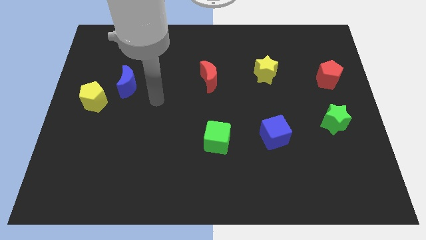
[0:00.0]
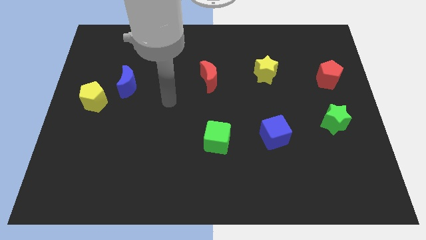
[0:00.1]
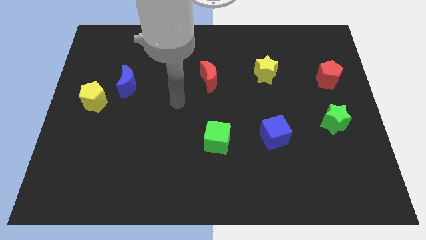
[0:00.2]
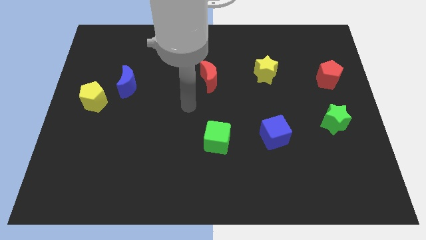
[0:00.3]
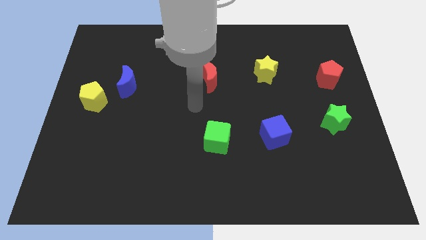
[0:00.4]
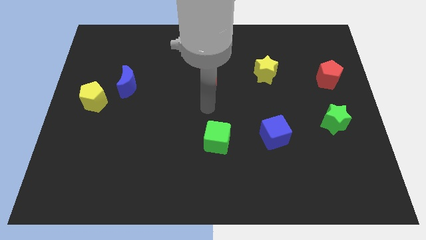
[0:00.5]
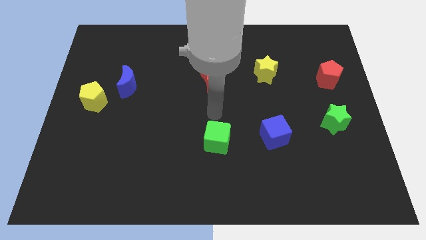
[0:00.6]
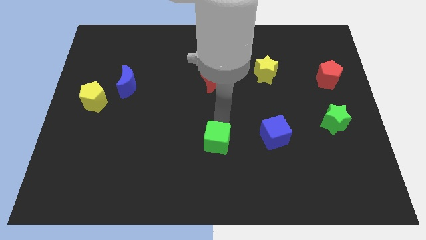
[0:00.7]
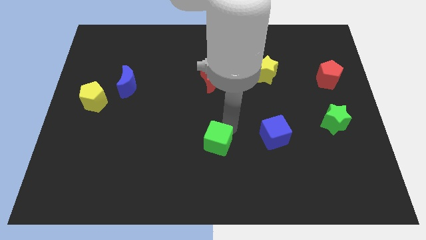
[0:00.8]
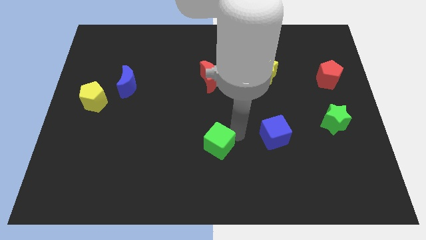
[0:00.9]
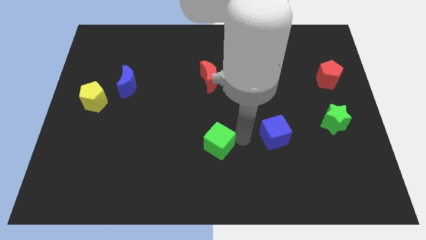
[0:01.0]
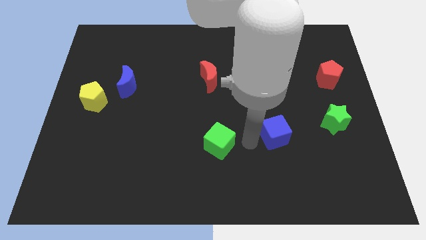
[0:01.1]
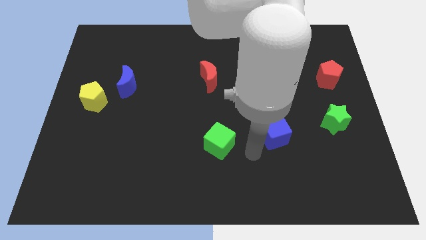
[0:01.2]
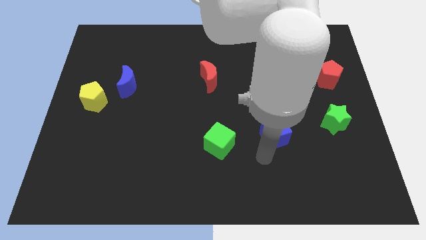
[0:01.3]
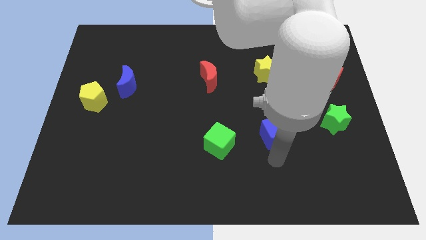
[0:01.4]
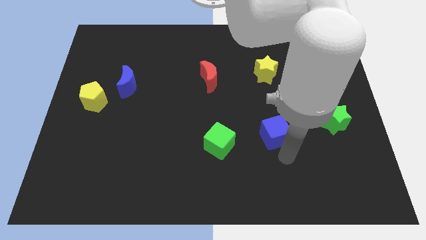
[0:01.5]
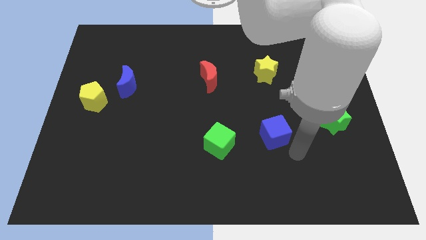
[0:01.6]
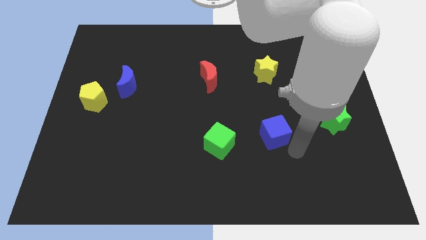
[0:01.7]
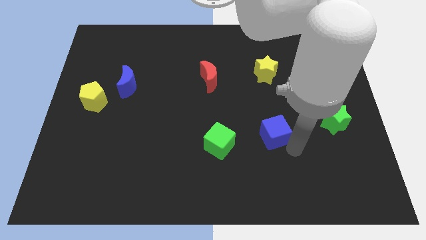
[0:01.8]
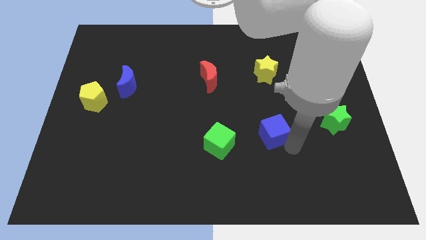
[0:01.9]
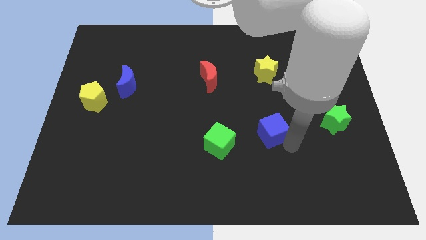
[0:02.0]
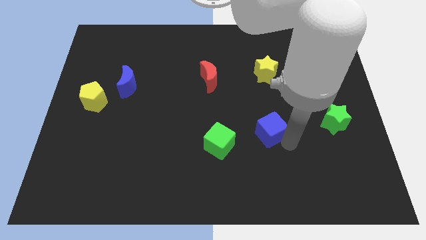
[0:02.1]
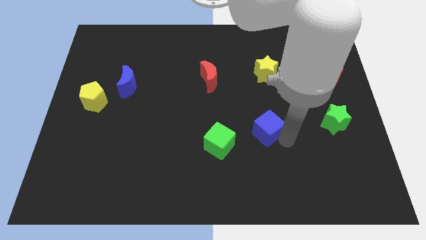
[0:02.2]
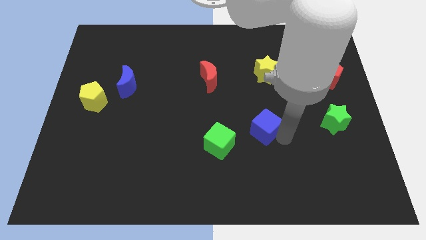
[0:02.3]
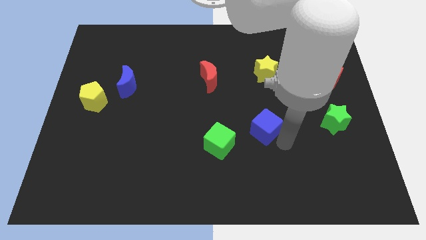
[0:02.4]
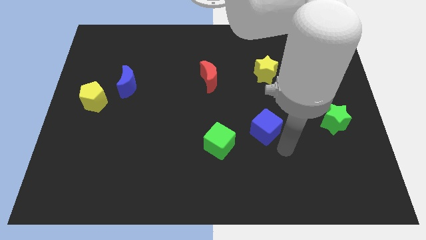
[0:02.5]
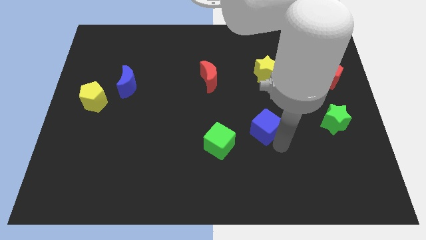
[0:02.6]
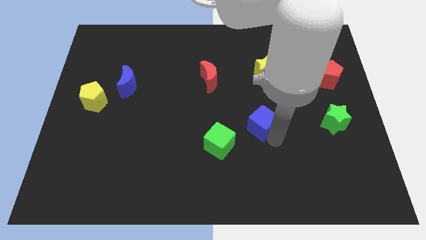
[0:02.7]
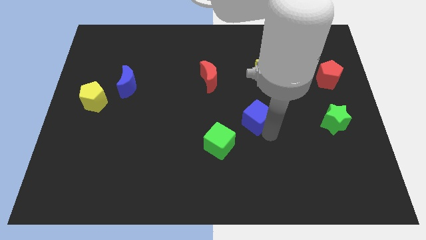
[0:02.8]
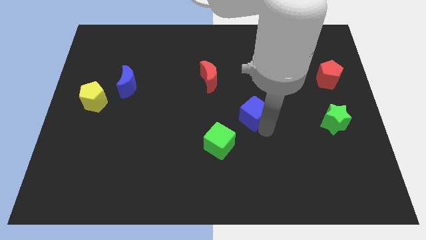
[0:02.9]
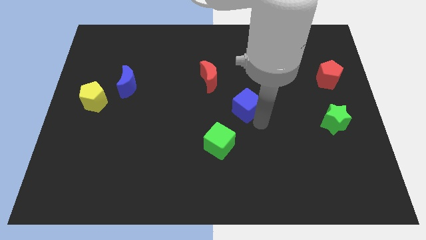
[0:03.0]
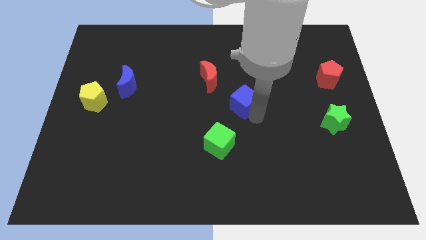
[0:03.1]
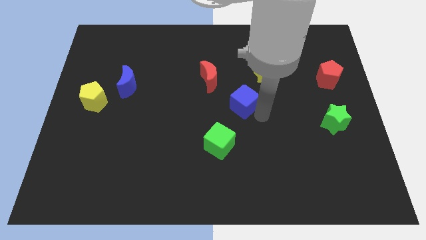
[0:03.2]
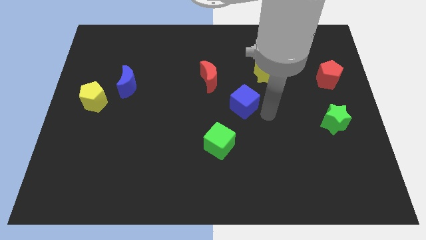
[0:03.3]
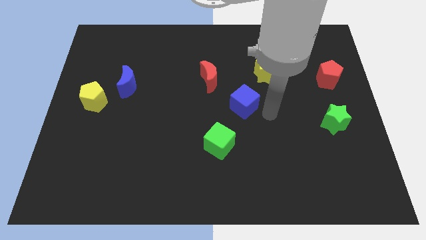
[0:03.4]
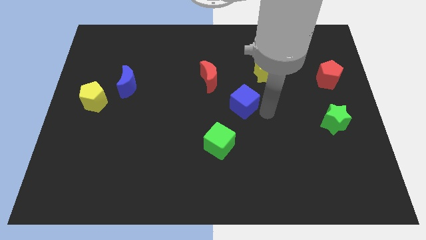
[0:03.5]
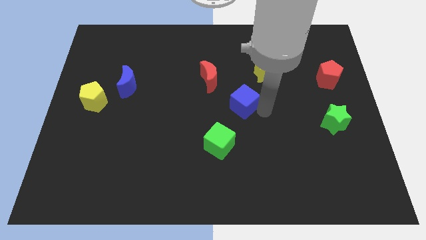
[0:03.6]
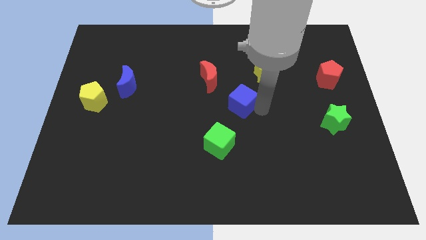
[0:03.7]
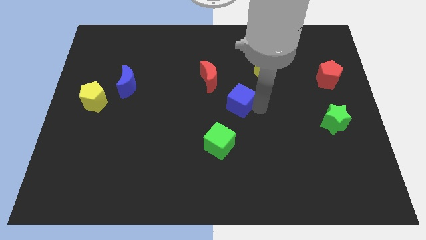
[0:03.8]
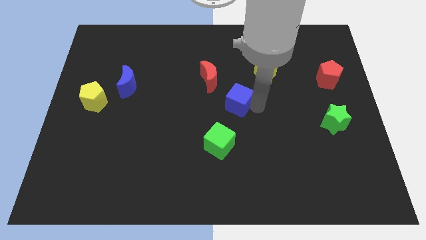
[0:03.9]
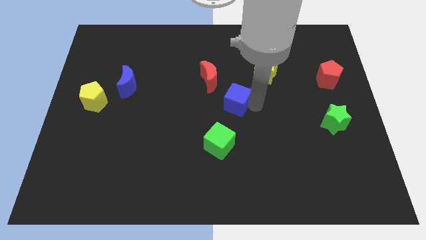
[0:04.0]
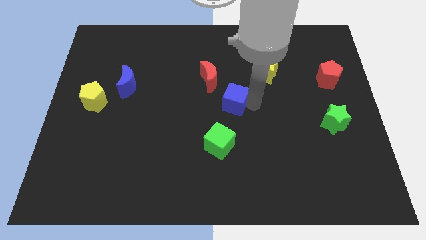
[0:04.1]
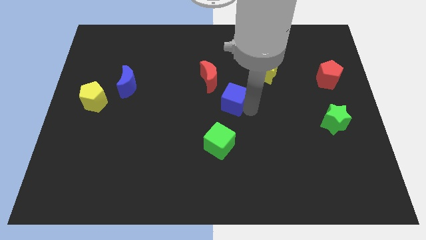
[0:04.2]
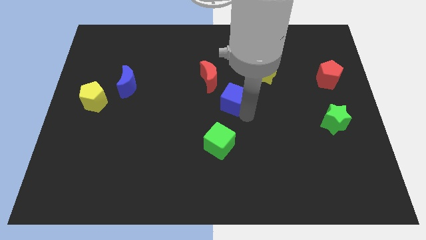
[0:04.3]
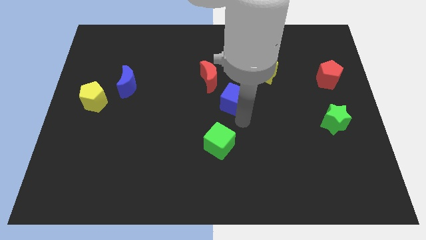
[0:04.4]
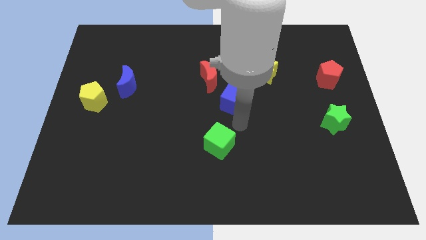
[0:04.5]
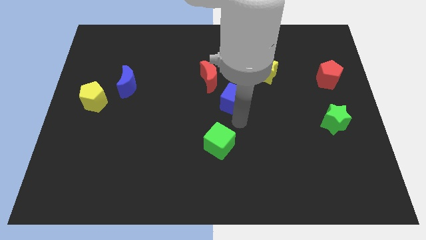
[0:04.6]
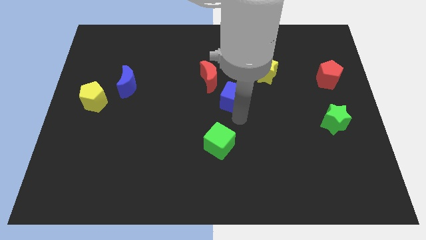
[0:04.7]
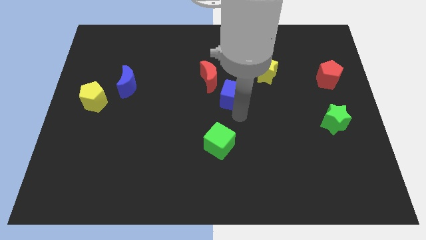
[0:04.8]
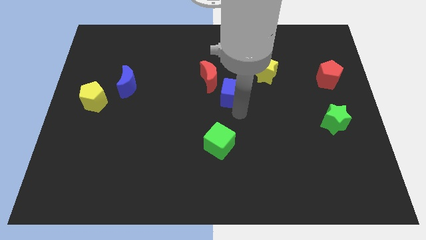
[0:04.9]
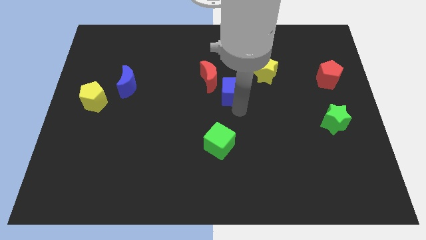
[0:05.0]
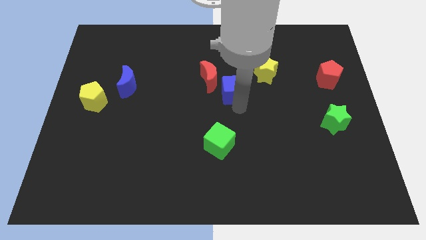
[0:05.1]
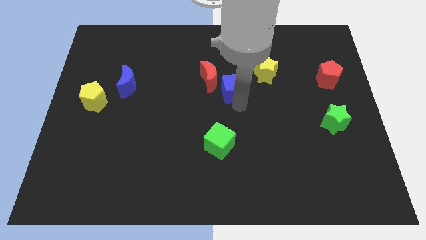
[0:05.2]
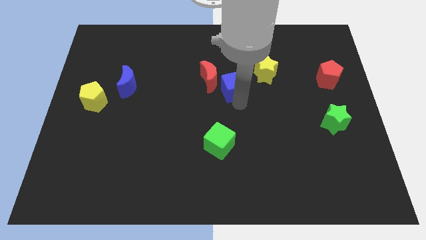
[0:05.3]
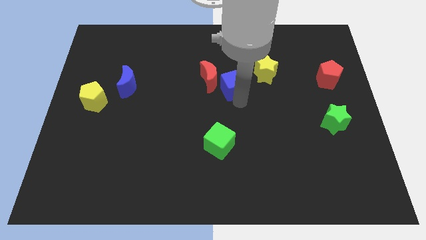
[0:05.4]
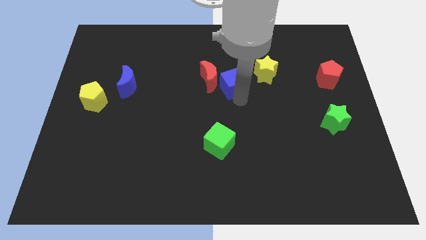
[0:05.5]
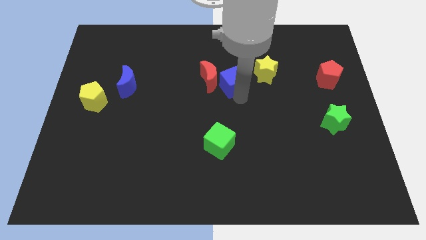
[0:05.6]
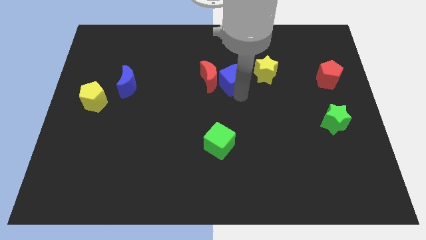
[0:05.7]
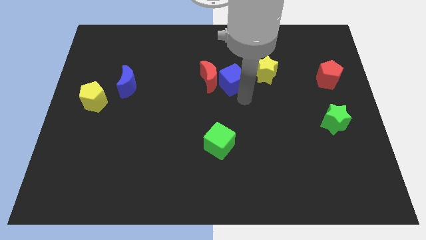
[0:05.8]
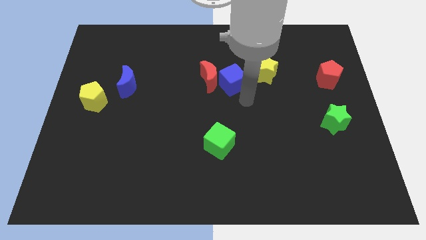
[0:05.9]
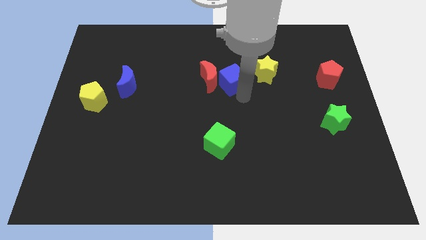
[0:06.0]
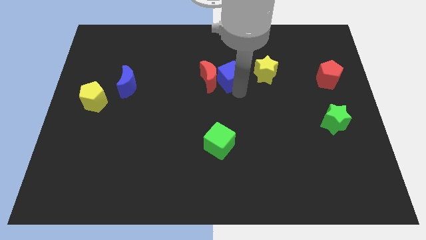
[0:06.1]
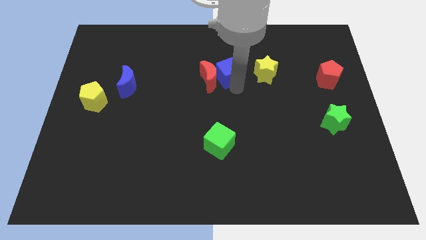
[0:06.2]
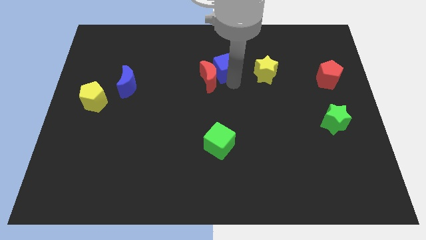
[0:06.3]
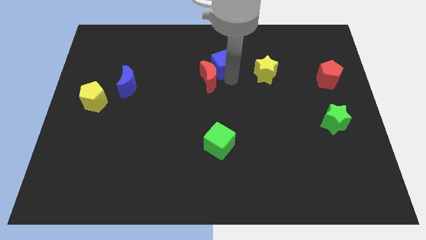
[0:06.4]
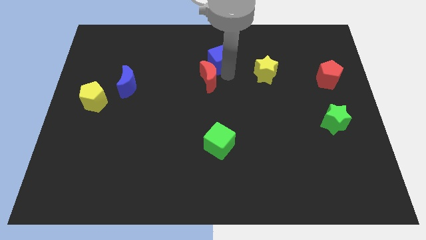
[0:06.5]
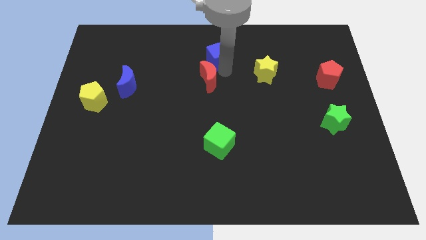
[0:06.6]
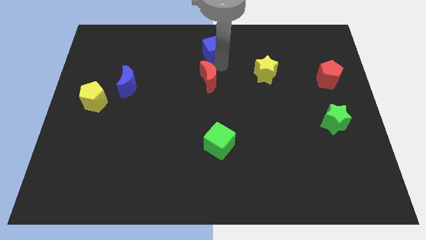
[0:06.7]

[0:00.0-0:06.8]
slide the blue cube to the top
